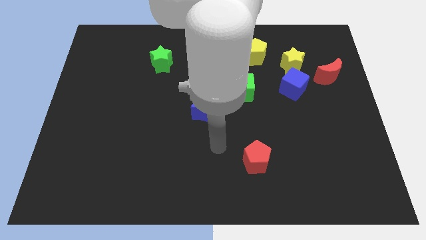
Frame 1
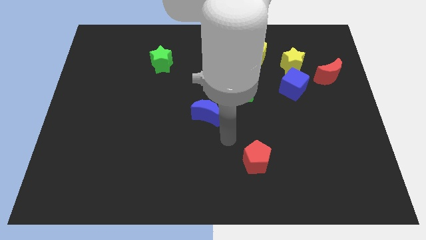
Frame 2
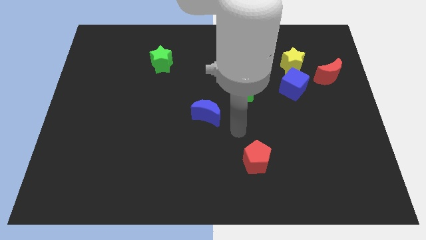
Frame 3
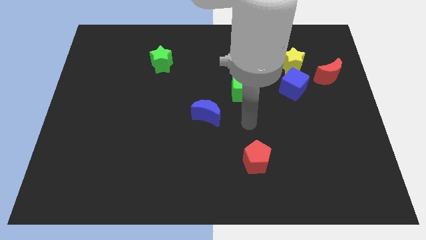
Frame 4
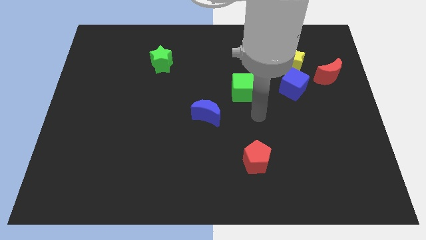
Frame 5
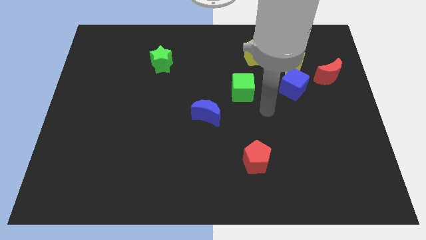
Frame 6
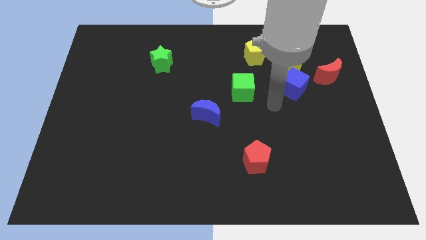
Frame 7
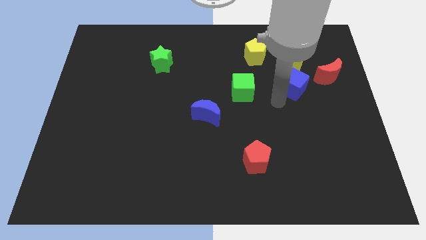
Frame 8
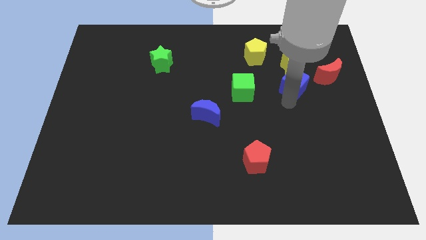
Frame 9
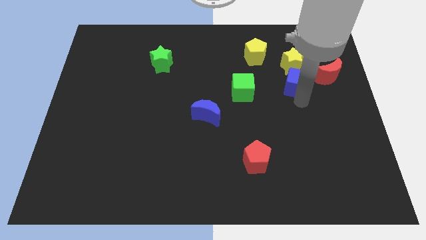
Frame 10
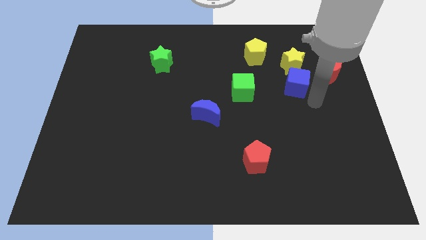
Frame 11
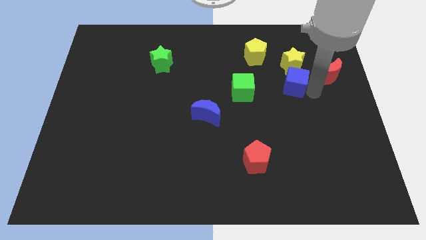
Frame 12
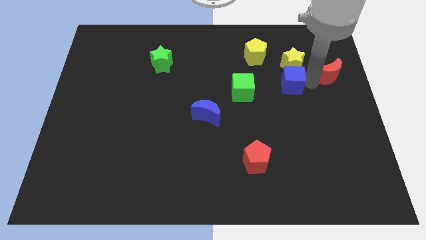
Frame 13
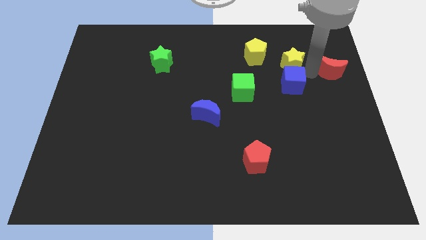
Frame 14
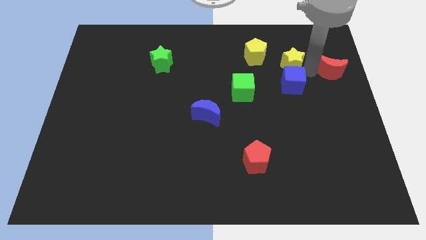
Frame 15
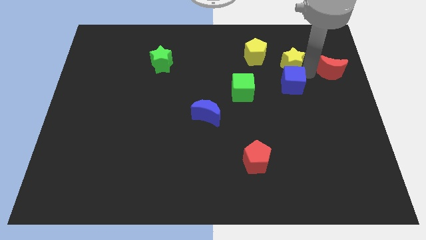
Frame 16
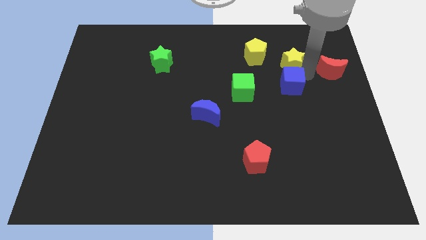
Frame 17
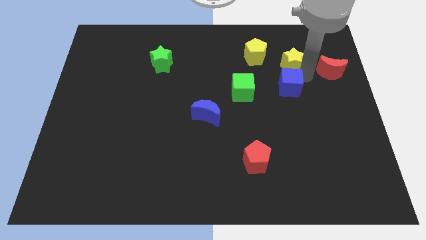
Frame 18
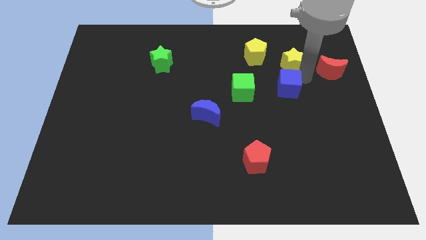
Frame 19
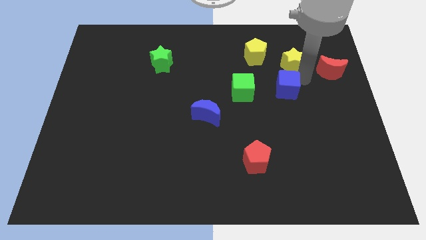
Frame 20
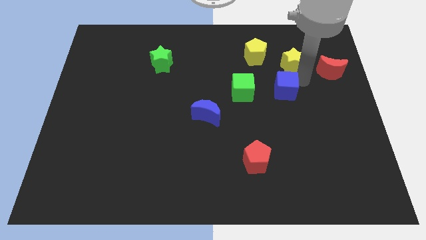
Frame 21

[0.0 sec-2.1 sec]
move the blue cube away from the yellow star and red moon

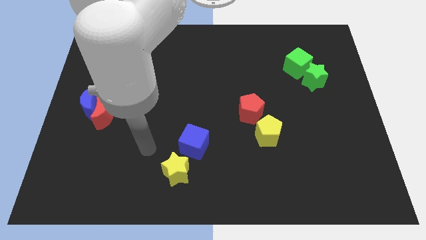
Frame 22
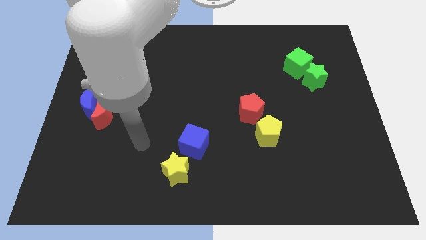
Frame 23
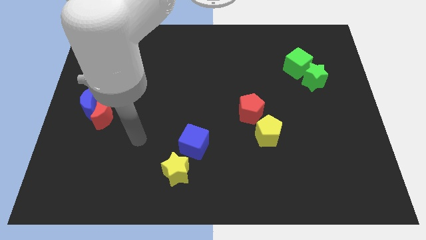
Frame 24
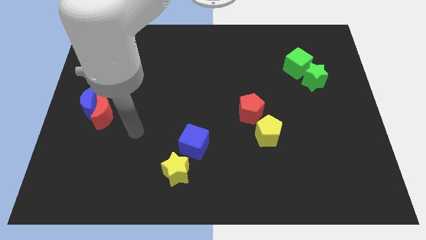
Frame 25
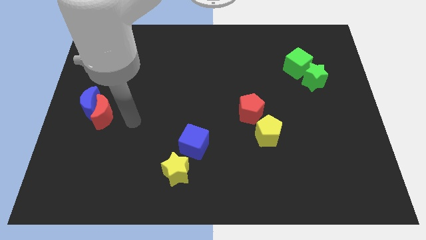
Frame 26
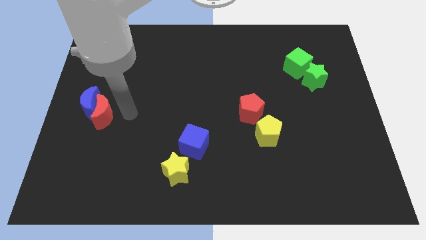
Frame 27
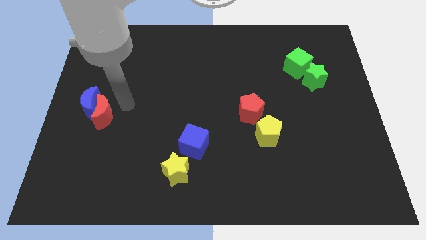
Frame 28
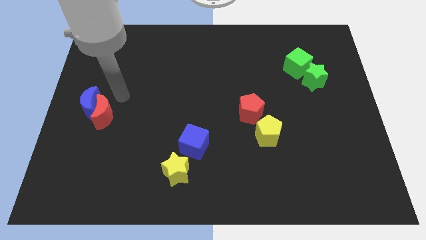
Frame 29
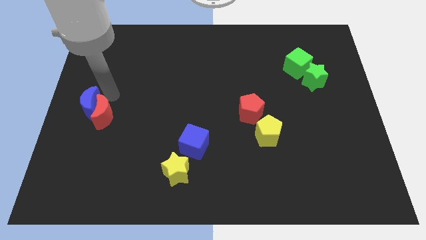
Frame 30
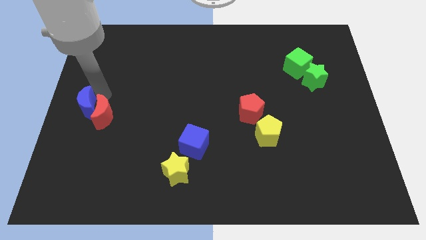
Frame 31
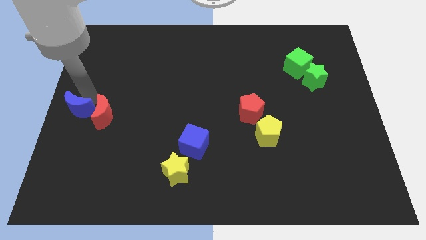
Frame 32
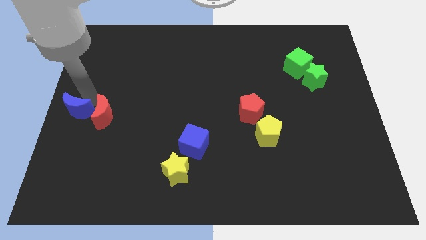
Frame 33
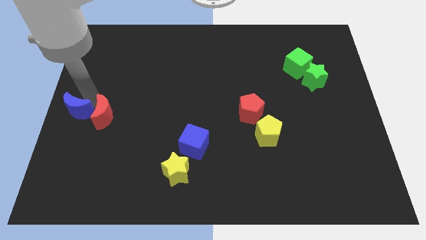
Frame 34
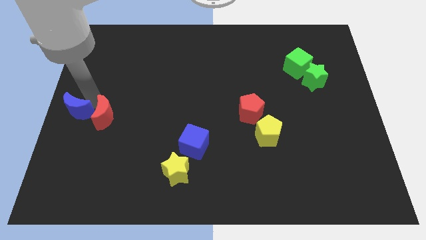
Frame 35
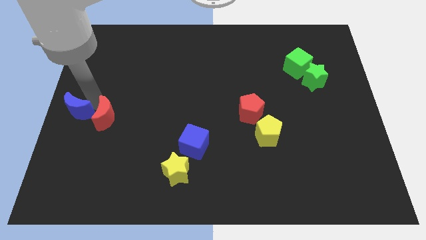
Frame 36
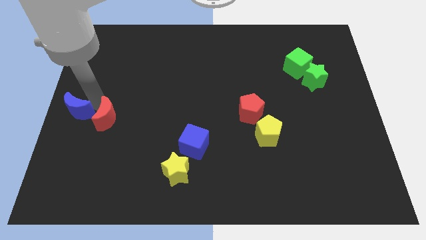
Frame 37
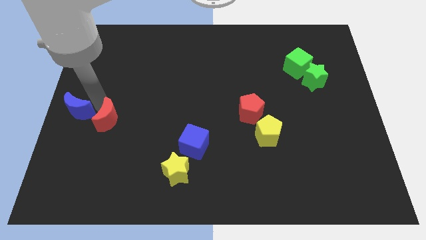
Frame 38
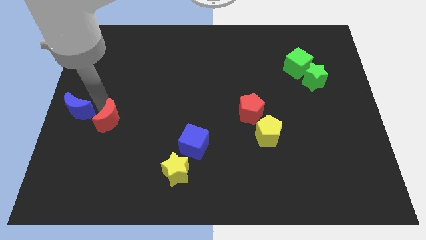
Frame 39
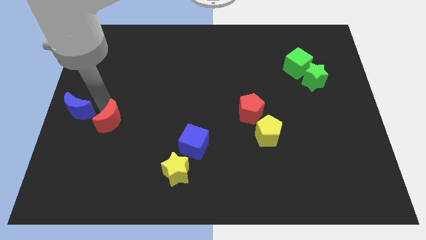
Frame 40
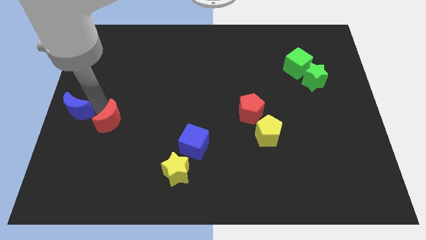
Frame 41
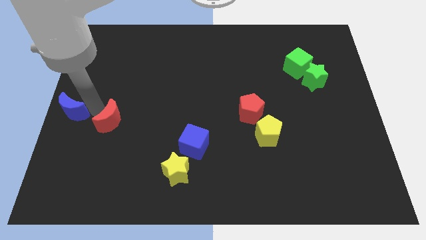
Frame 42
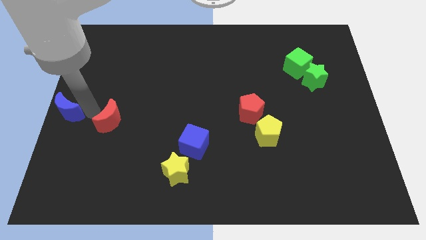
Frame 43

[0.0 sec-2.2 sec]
move the red moon away from the blue moon

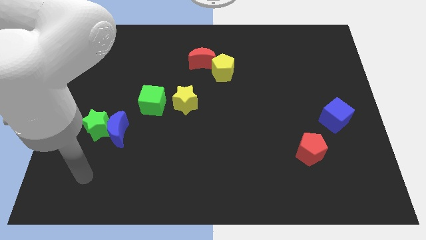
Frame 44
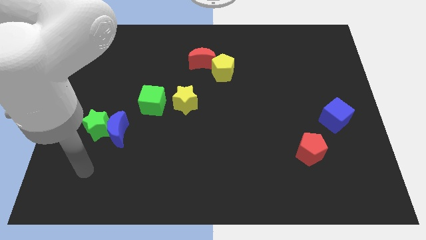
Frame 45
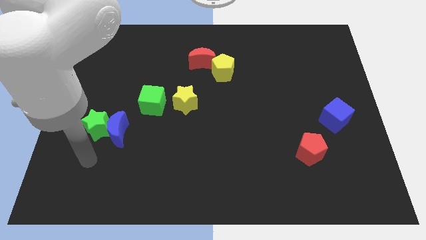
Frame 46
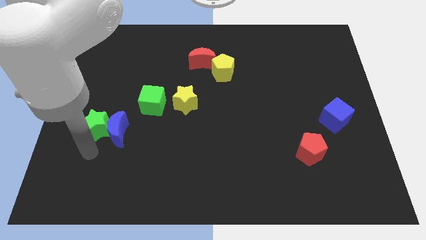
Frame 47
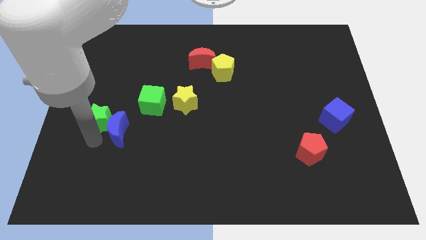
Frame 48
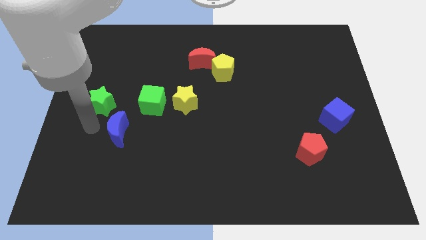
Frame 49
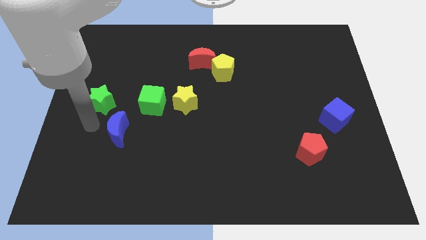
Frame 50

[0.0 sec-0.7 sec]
separate the blue moon from the green star

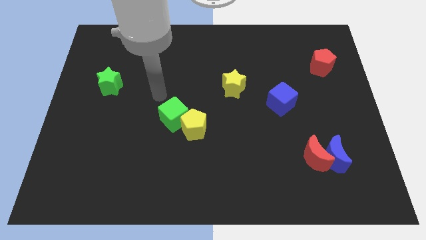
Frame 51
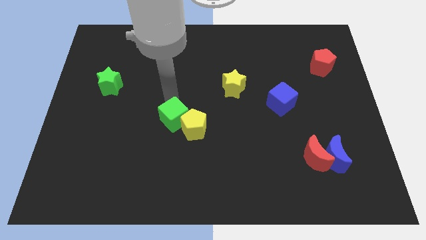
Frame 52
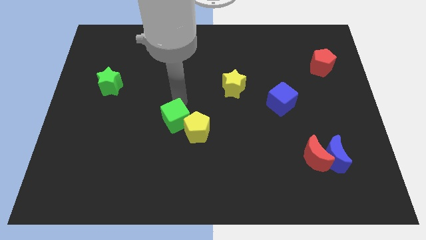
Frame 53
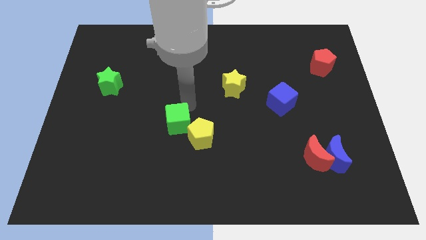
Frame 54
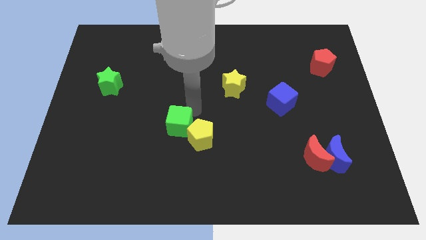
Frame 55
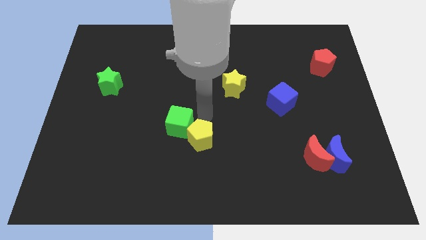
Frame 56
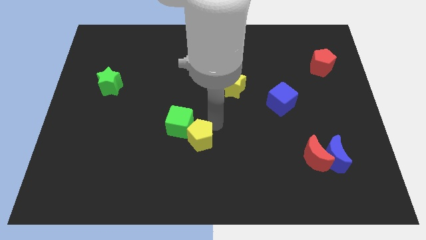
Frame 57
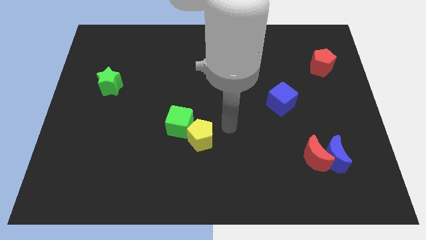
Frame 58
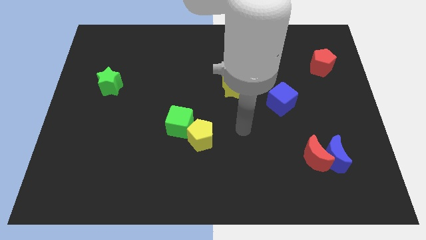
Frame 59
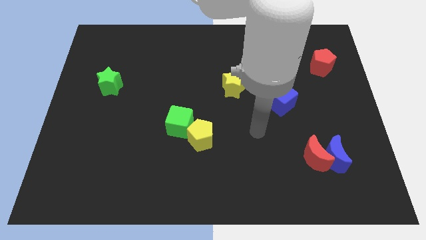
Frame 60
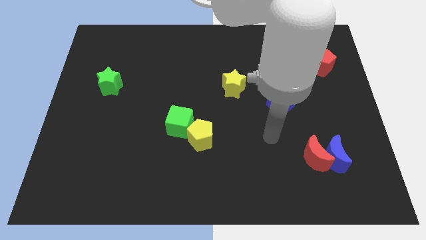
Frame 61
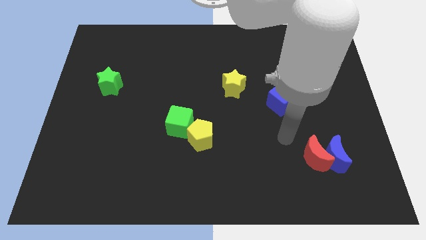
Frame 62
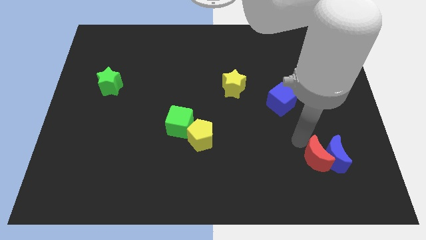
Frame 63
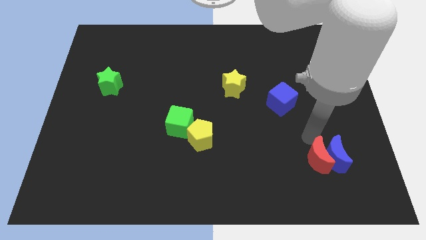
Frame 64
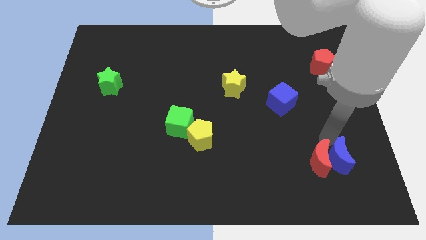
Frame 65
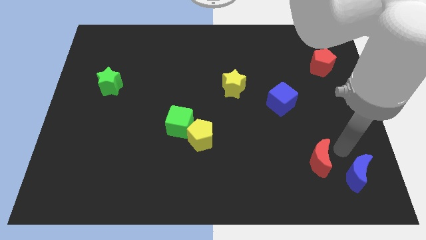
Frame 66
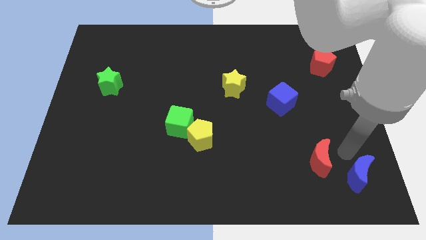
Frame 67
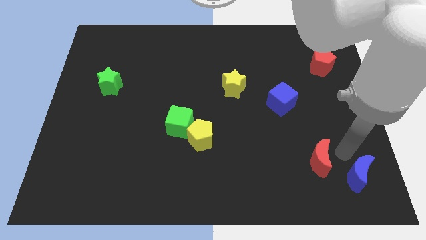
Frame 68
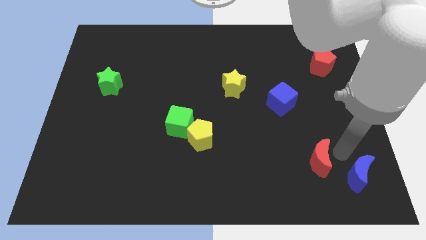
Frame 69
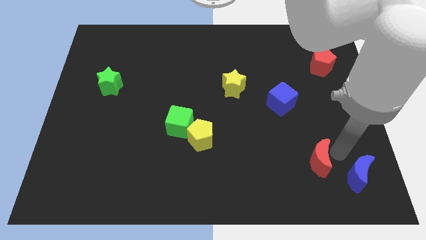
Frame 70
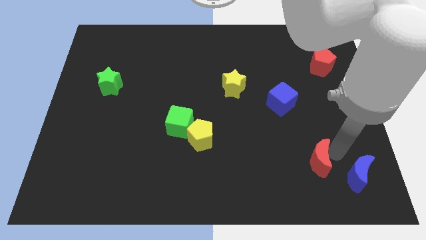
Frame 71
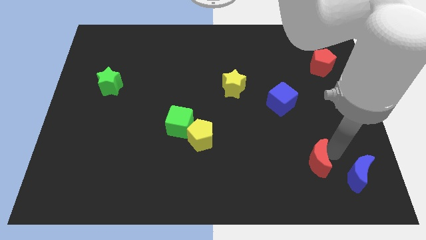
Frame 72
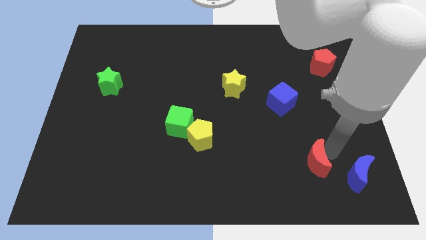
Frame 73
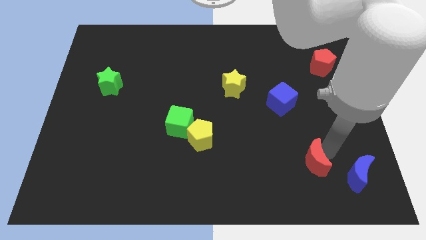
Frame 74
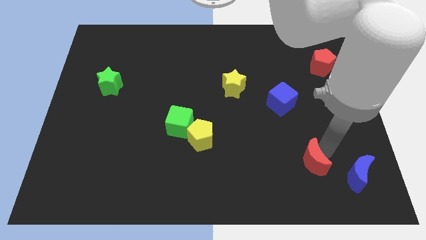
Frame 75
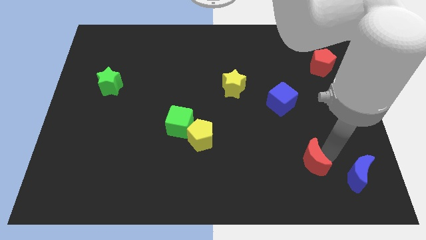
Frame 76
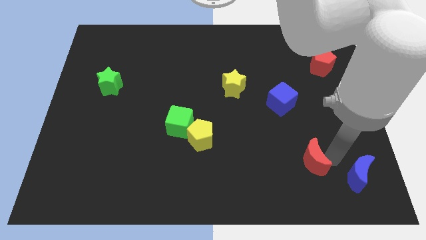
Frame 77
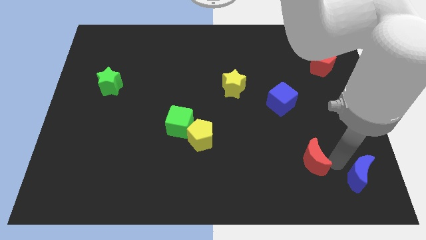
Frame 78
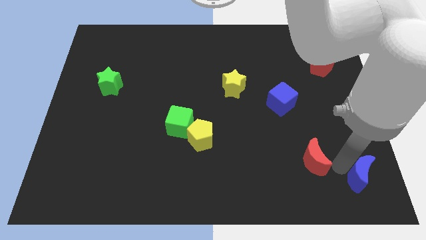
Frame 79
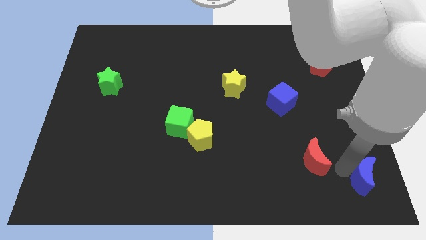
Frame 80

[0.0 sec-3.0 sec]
separate the red moon from the blue moon

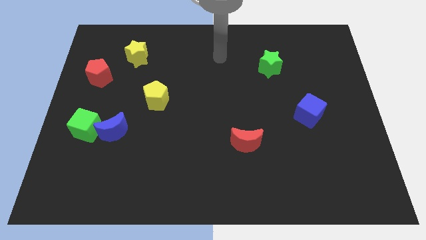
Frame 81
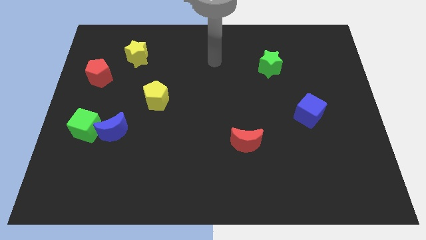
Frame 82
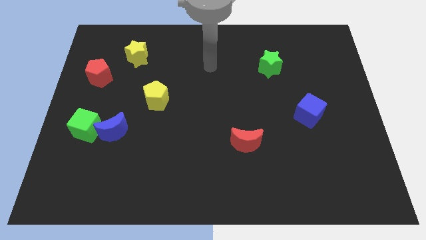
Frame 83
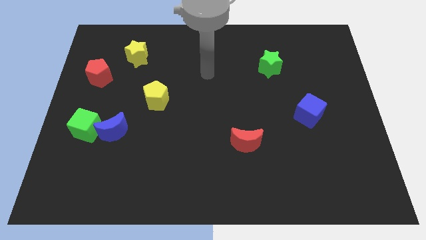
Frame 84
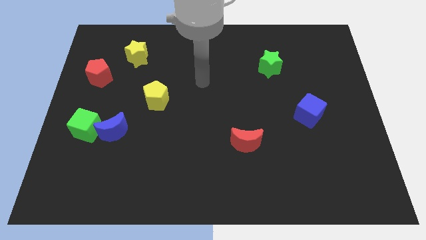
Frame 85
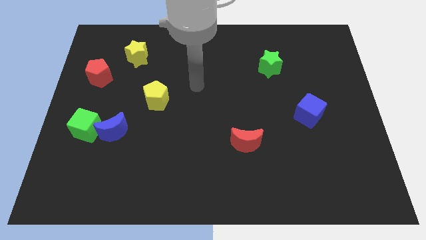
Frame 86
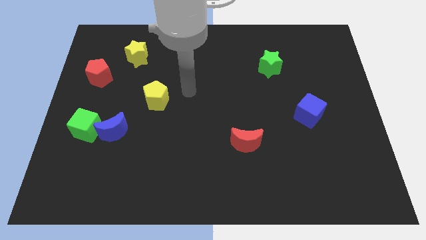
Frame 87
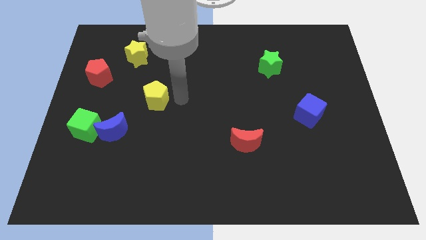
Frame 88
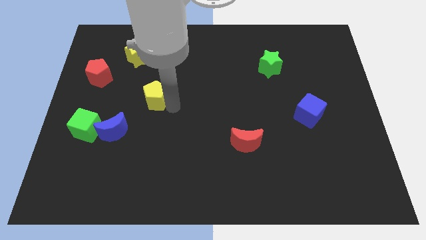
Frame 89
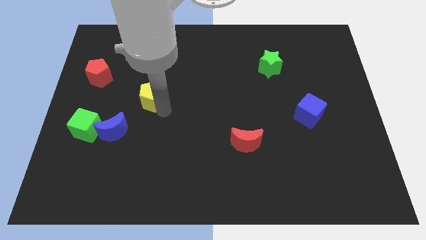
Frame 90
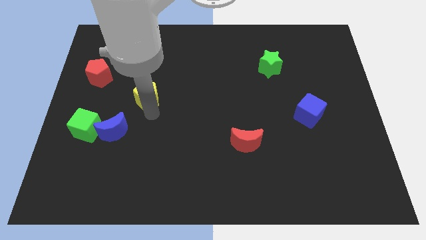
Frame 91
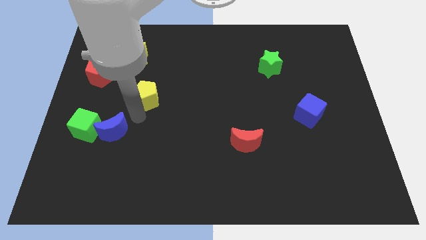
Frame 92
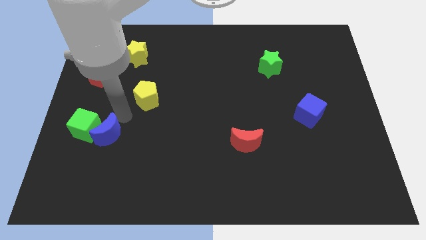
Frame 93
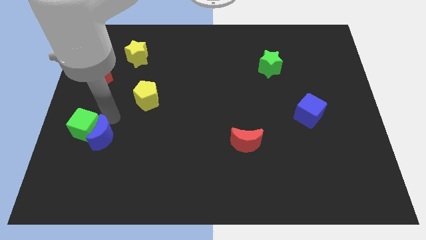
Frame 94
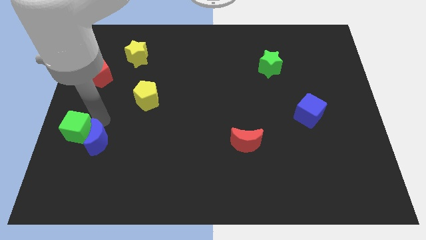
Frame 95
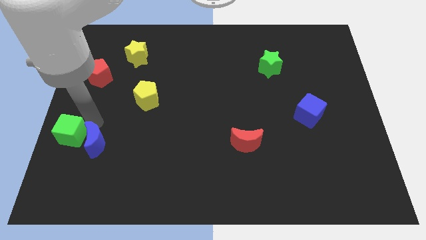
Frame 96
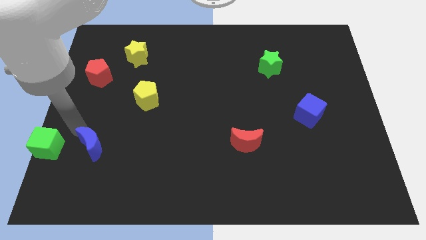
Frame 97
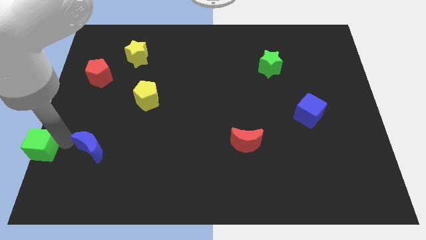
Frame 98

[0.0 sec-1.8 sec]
separate the blue moon from the green cube
